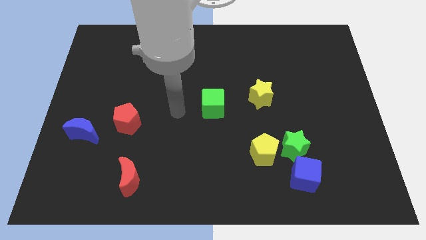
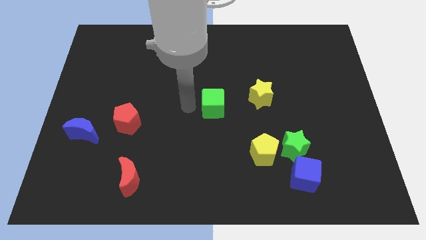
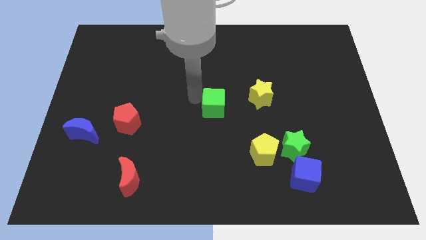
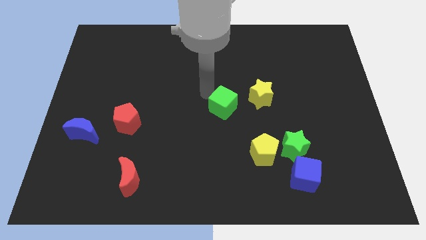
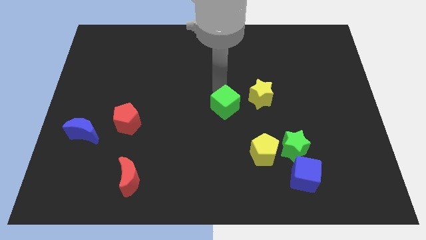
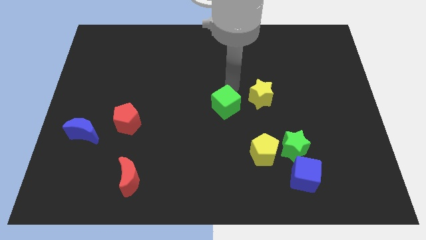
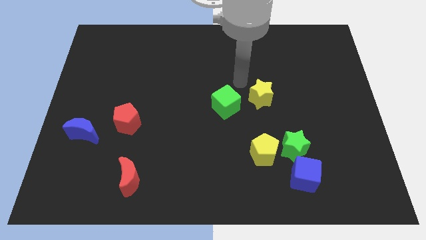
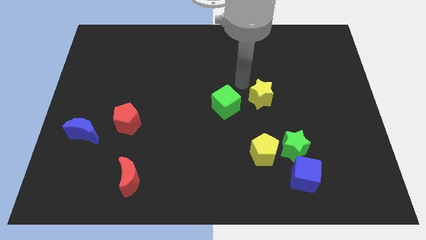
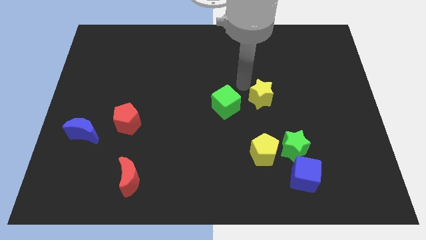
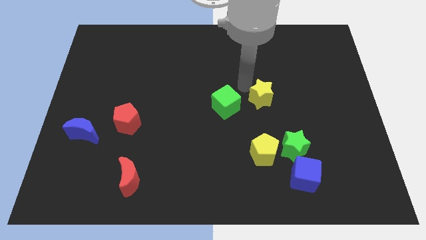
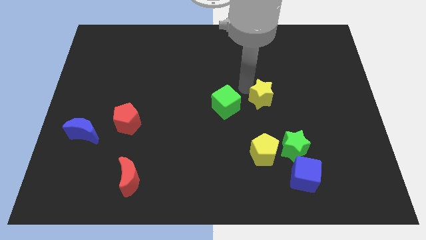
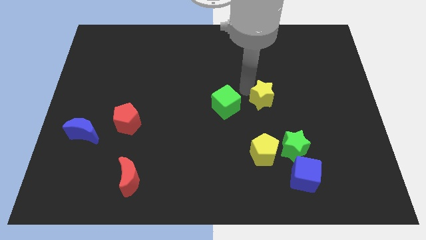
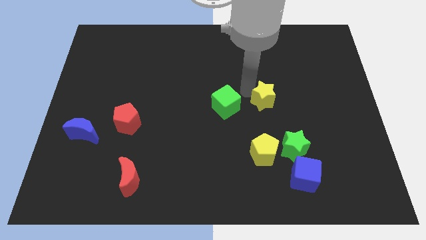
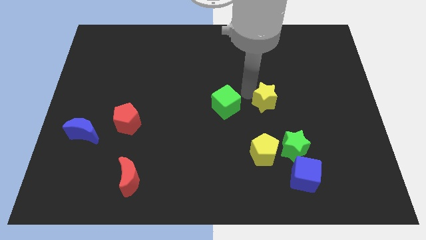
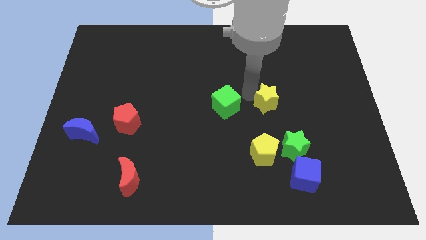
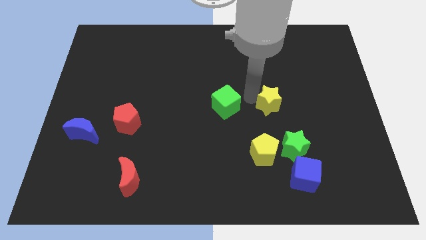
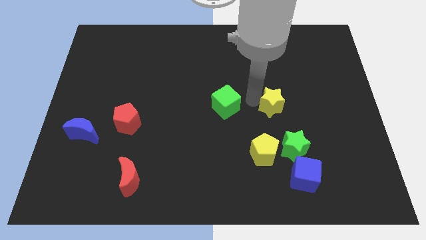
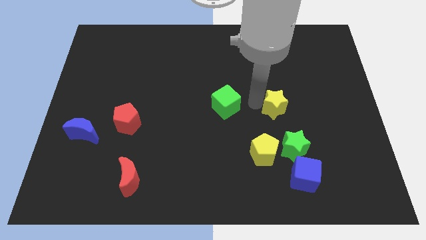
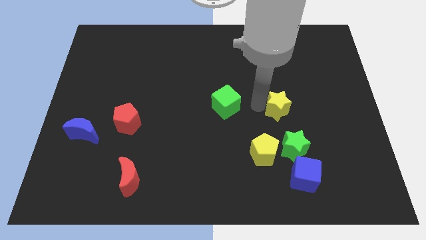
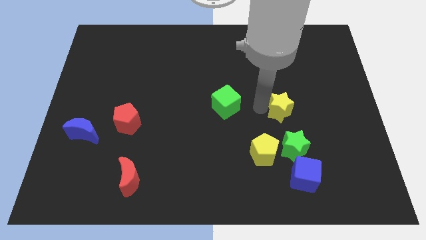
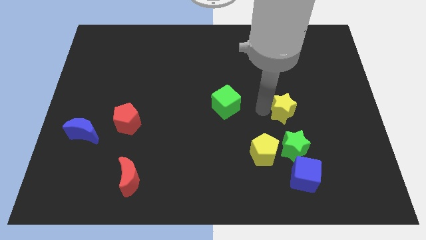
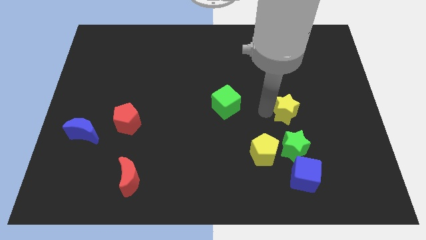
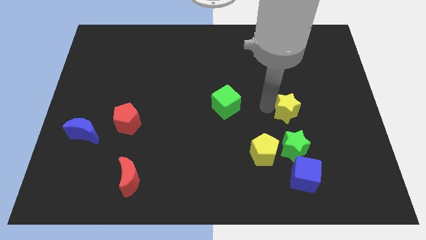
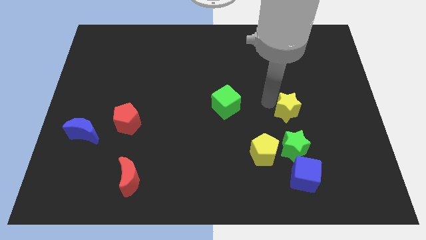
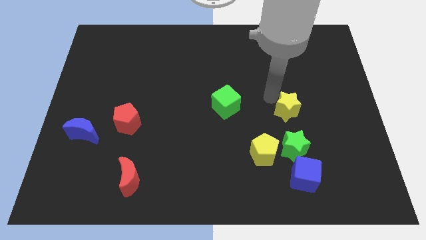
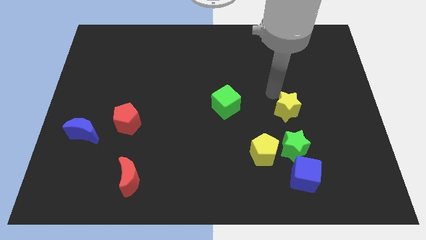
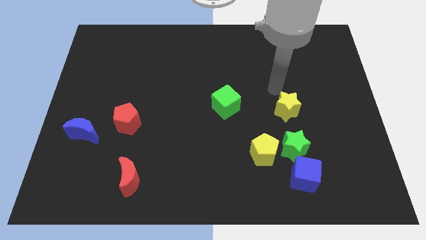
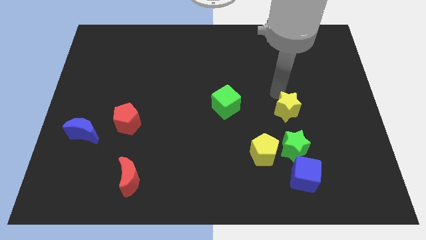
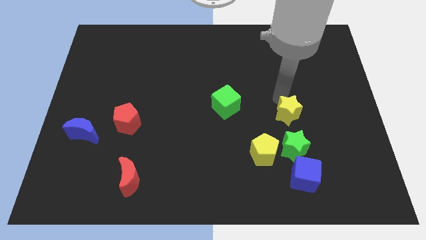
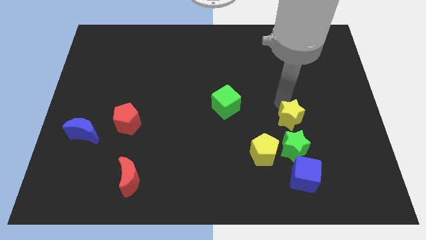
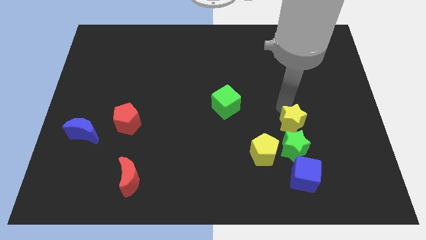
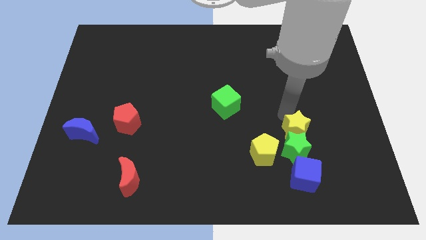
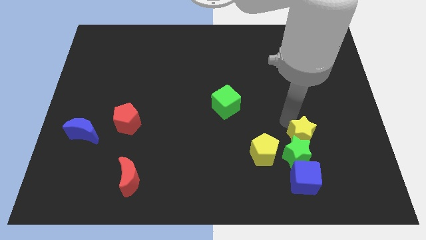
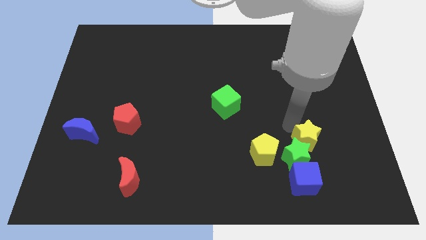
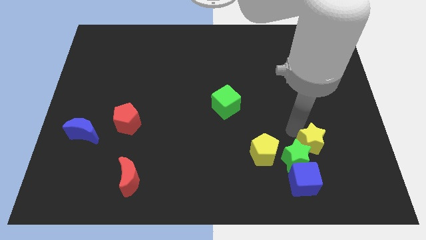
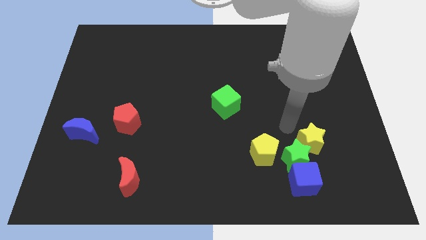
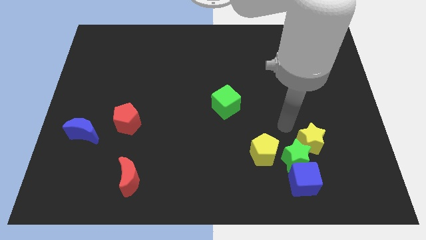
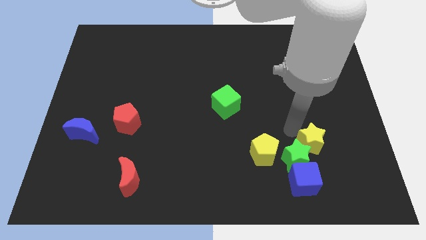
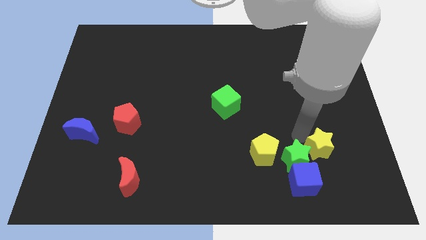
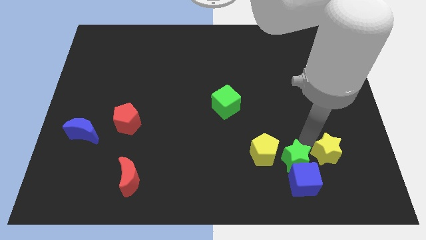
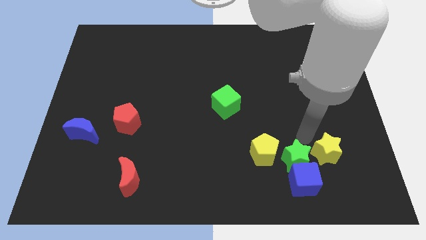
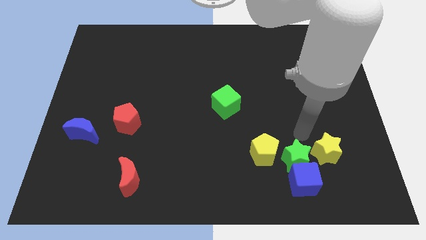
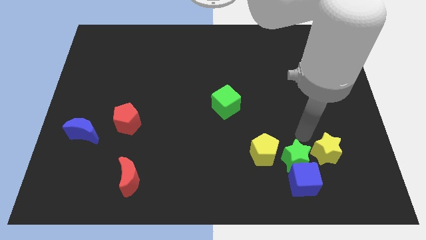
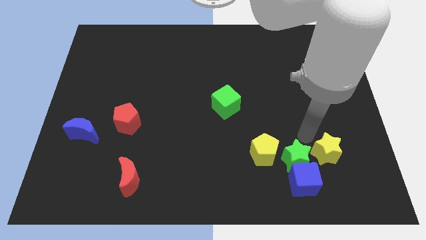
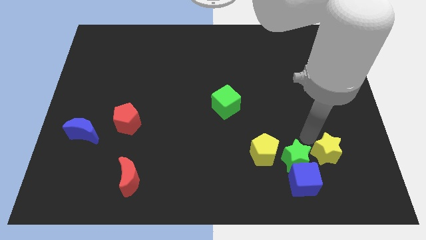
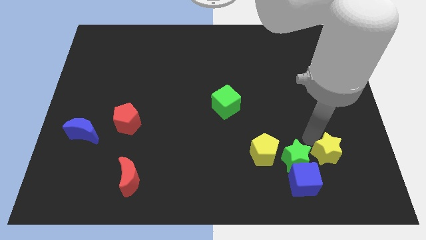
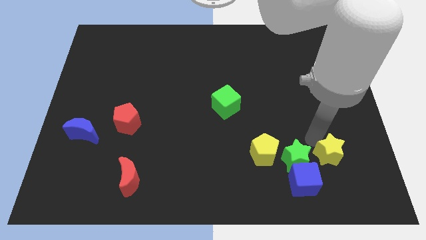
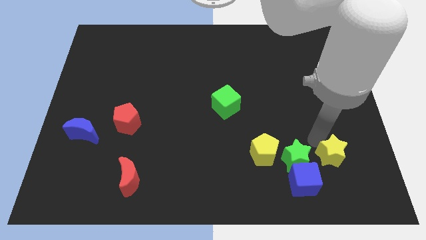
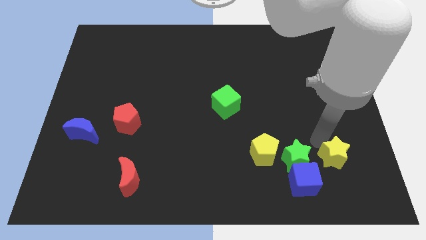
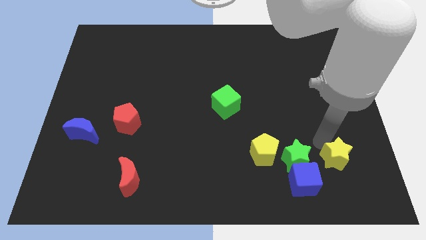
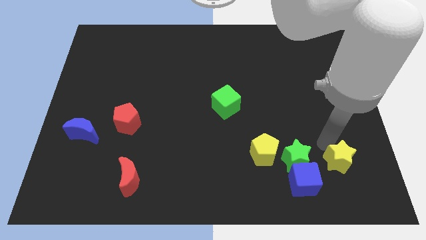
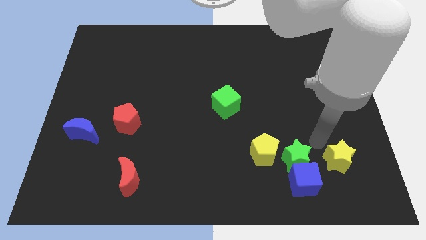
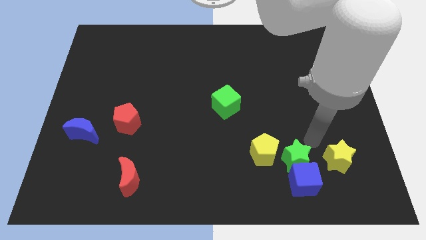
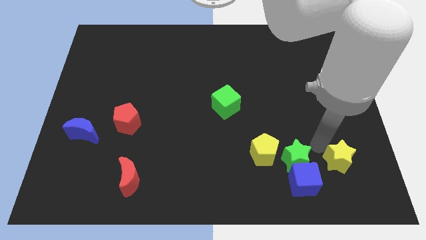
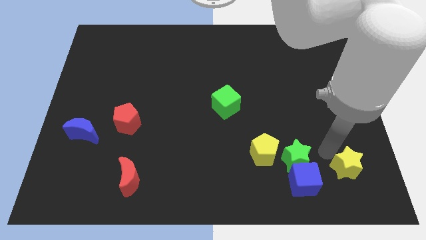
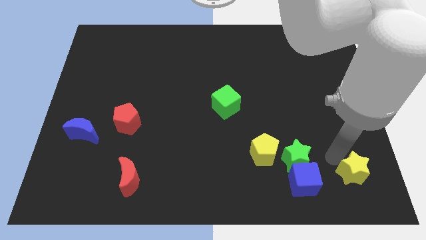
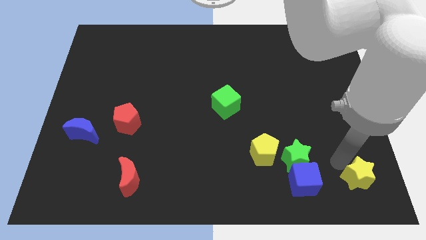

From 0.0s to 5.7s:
move the yellow star to the lower right corner

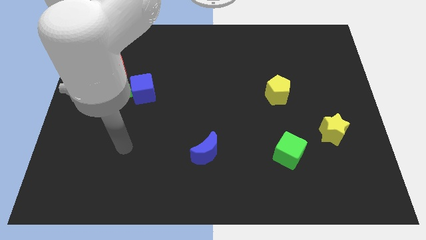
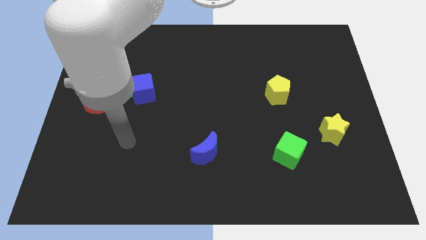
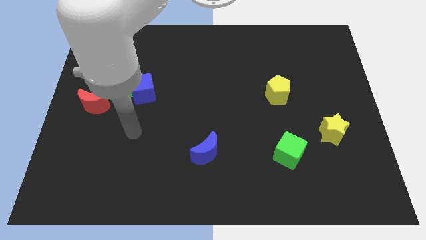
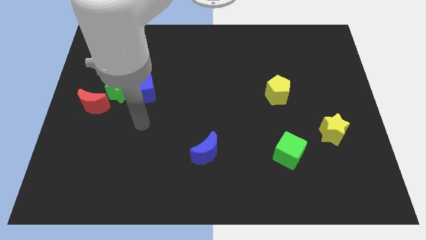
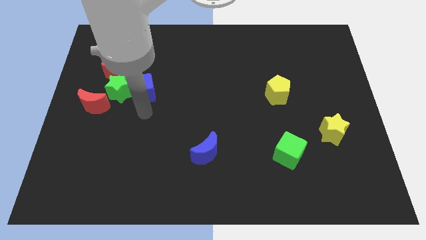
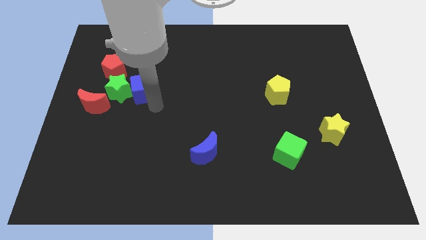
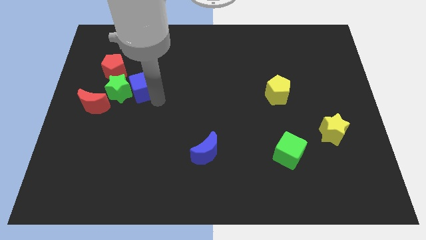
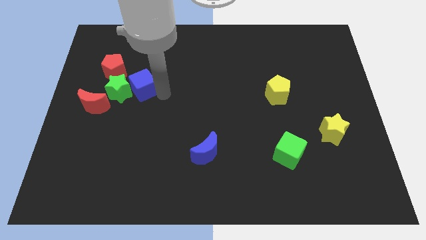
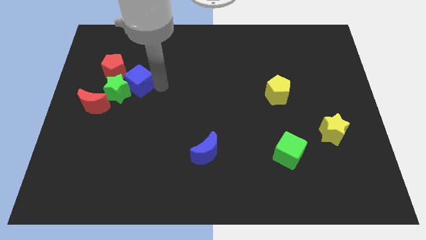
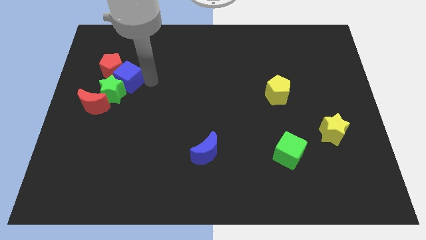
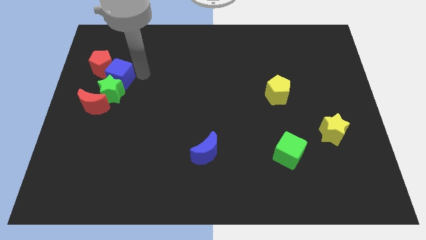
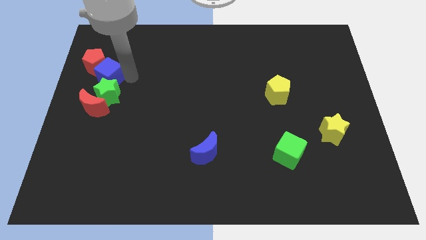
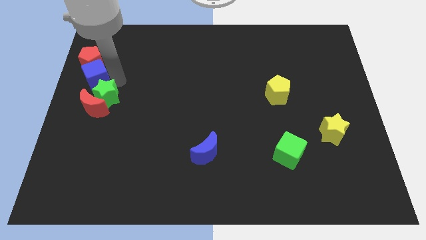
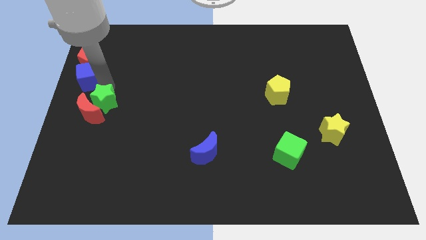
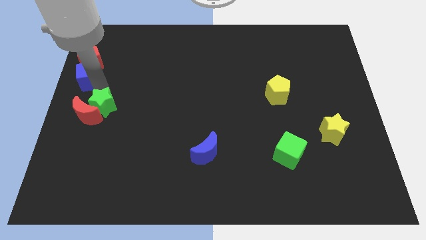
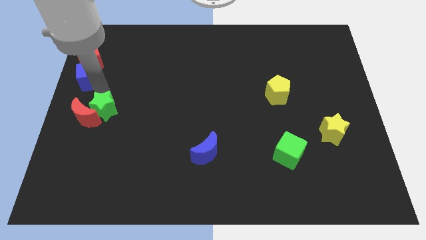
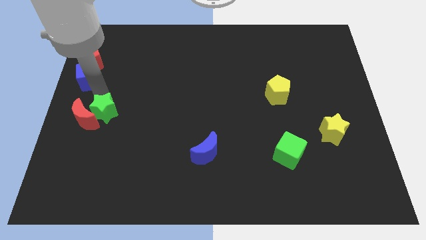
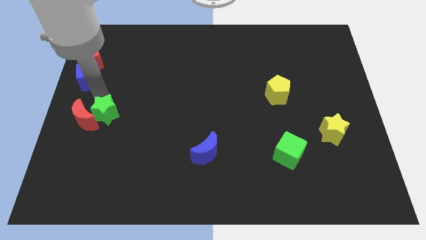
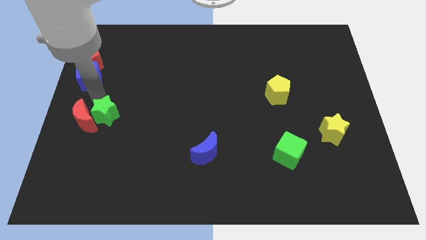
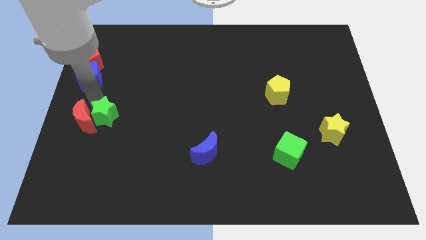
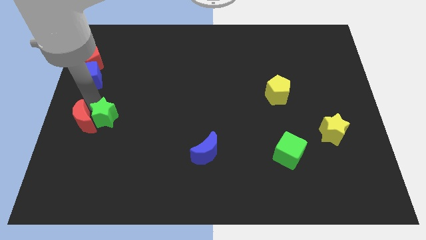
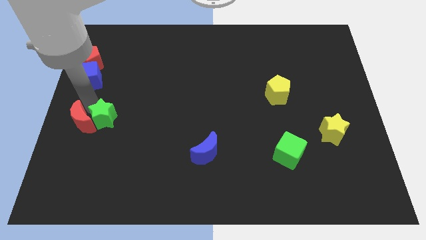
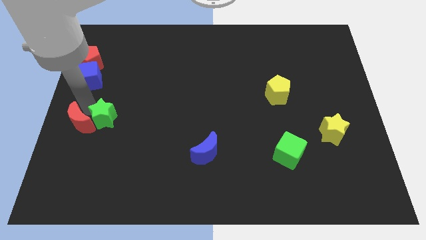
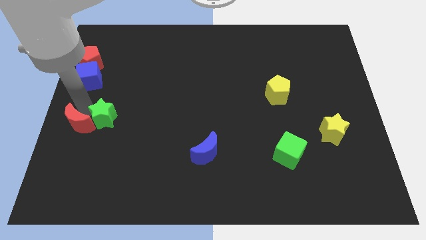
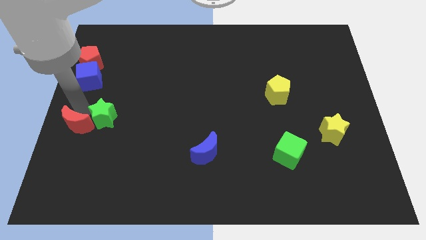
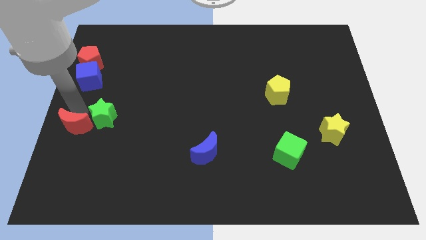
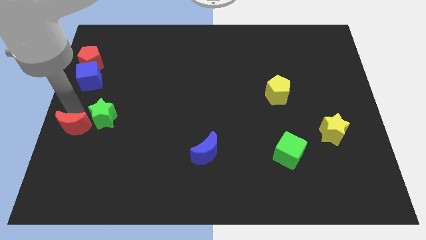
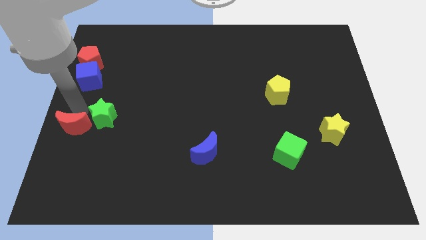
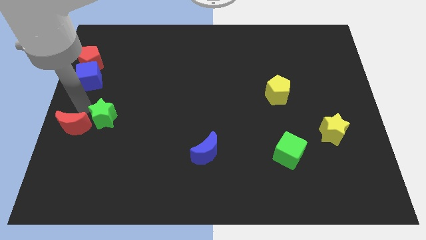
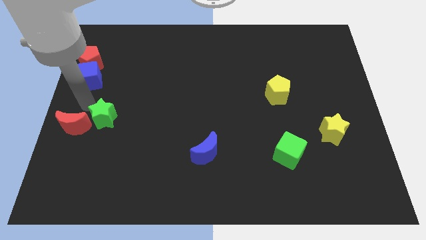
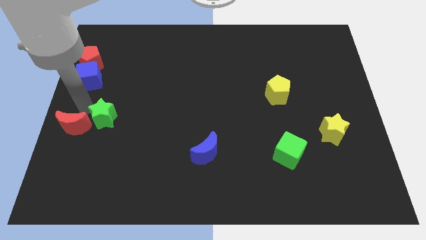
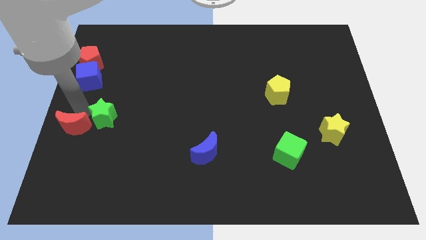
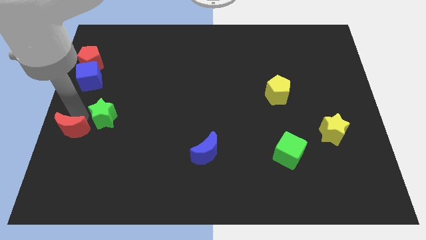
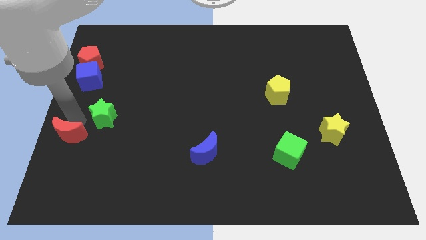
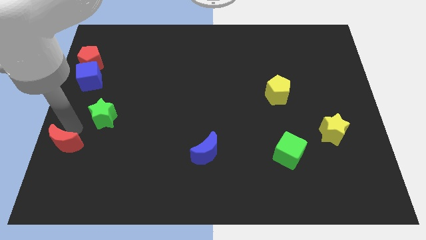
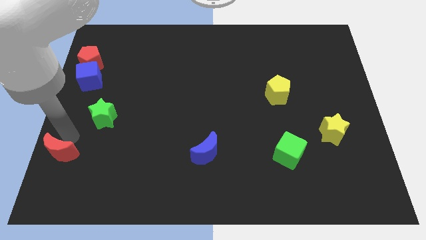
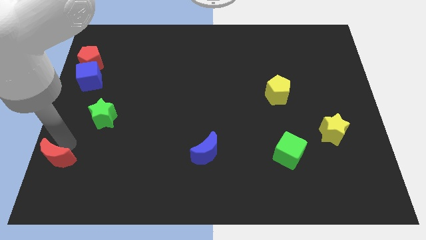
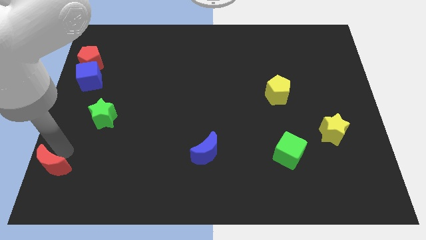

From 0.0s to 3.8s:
slide the red moon to the lower left corner
